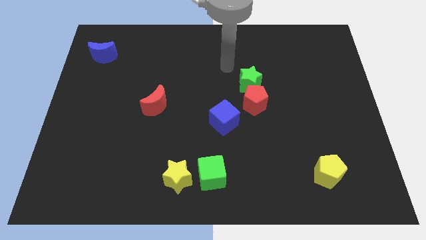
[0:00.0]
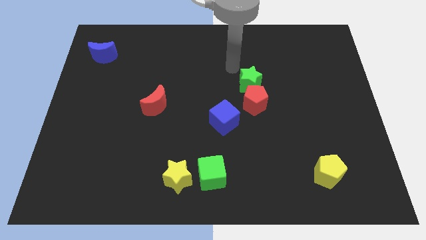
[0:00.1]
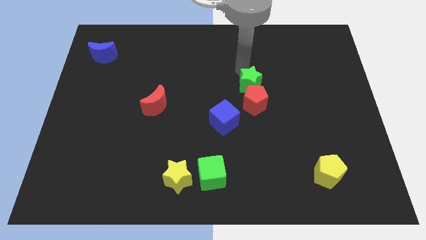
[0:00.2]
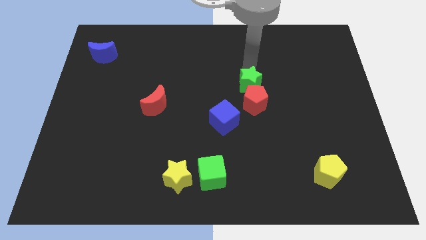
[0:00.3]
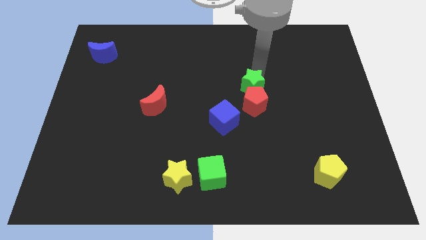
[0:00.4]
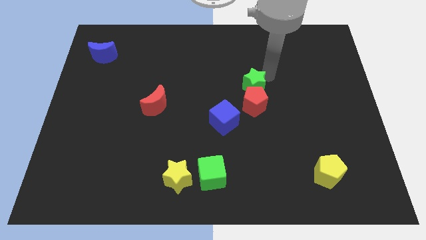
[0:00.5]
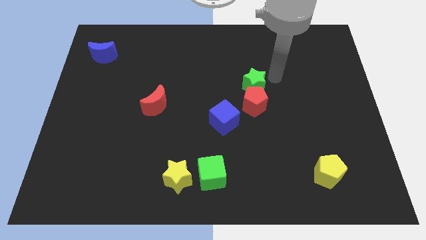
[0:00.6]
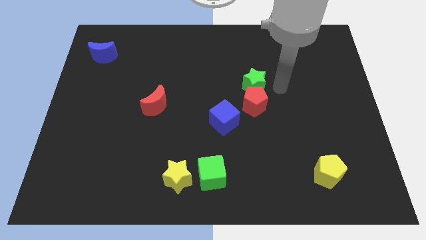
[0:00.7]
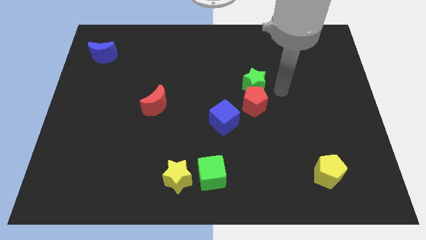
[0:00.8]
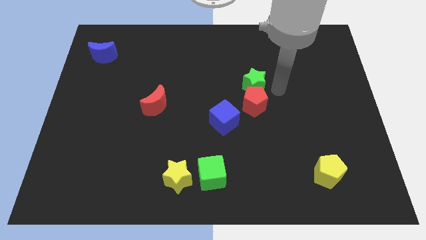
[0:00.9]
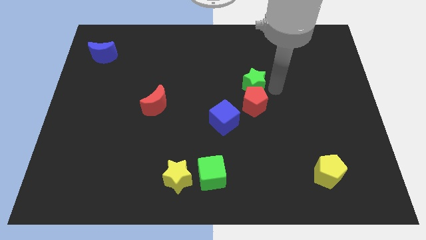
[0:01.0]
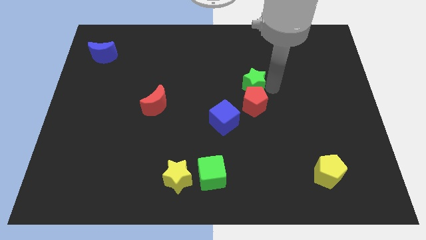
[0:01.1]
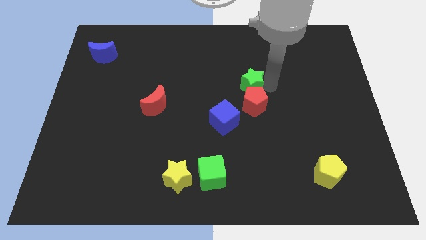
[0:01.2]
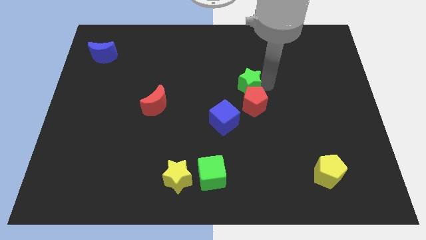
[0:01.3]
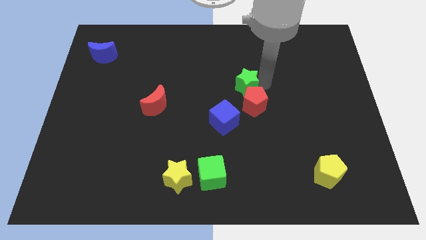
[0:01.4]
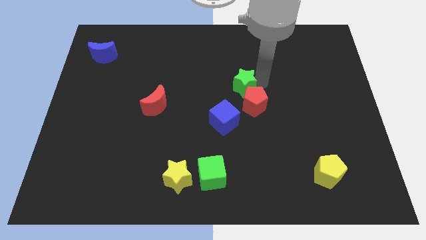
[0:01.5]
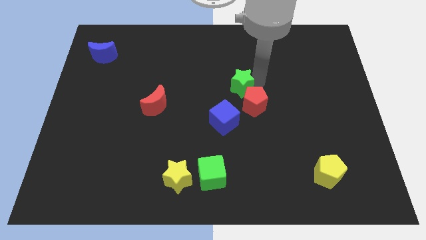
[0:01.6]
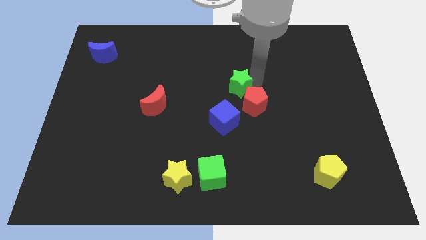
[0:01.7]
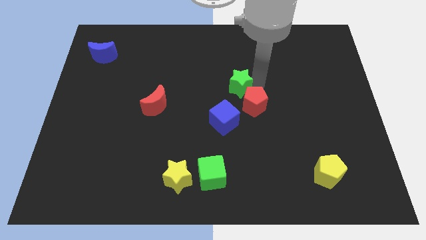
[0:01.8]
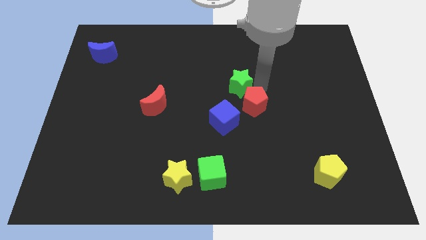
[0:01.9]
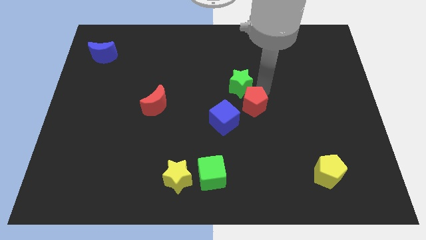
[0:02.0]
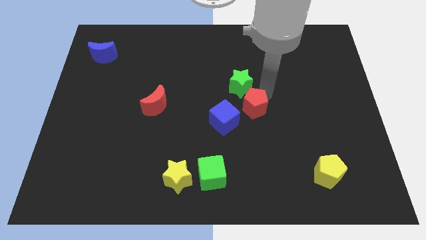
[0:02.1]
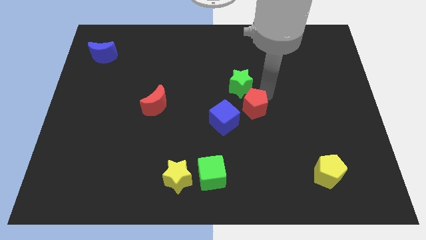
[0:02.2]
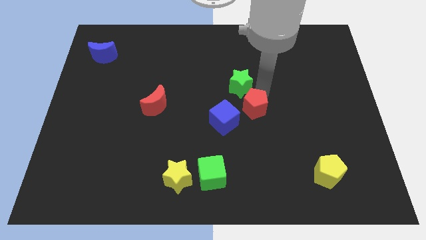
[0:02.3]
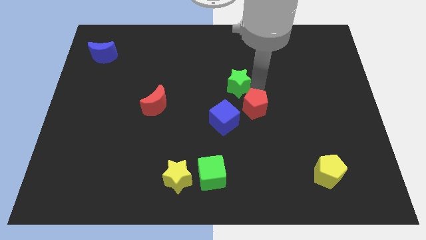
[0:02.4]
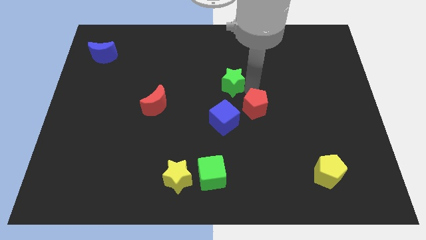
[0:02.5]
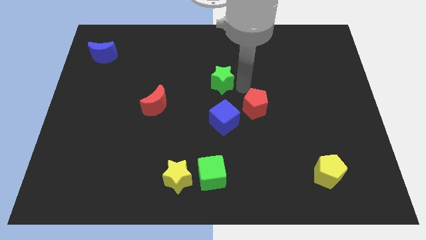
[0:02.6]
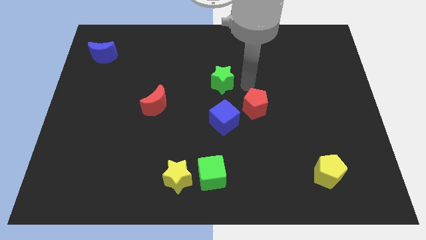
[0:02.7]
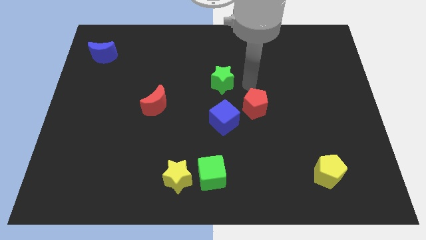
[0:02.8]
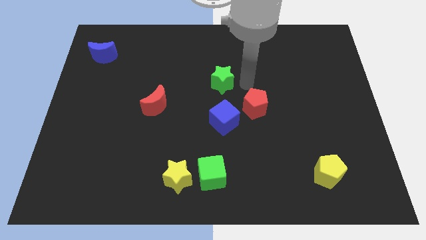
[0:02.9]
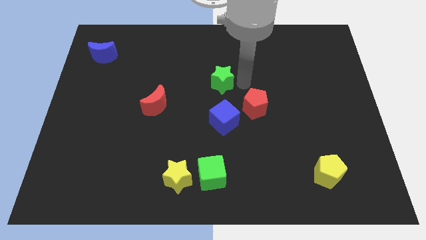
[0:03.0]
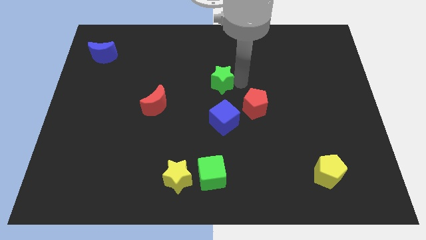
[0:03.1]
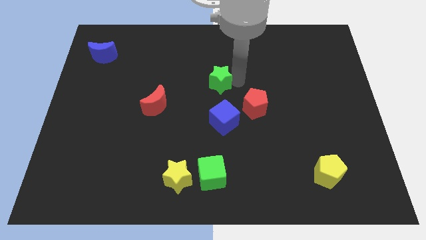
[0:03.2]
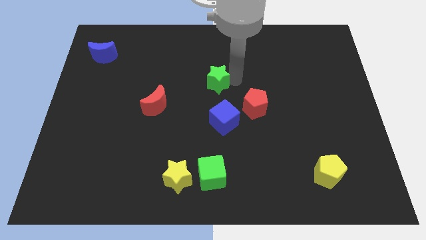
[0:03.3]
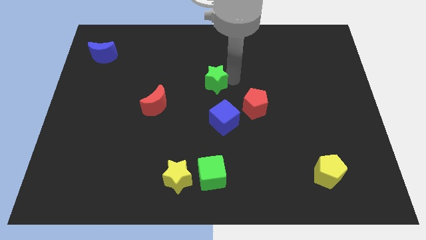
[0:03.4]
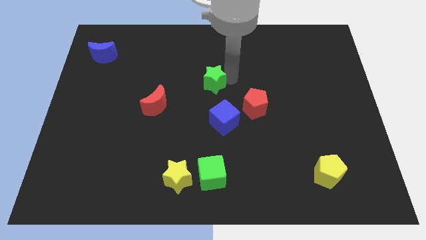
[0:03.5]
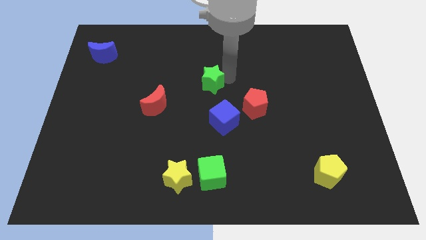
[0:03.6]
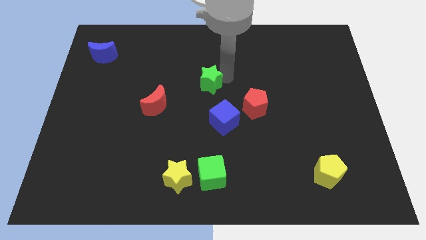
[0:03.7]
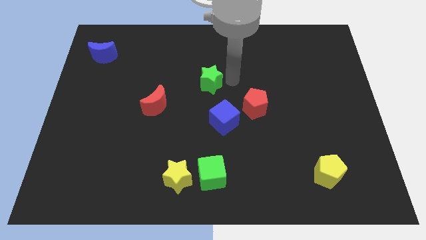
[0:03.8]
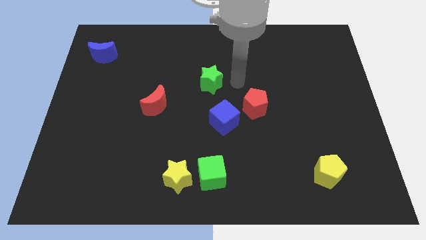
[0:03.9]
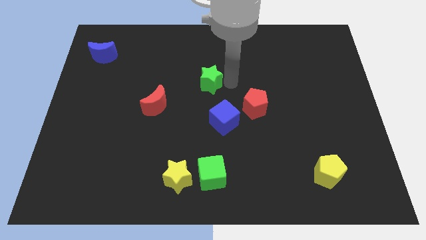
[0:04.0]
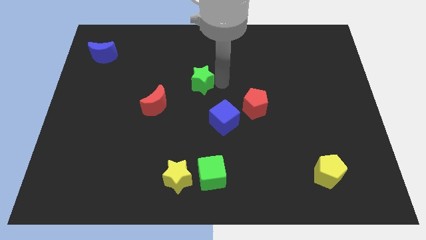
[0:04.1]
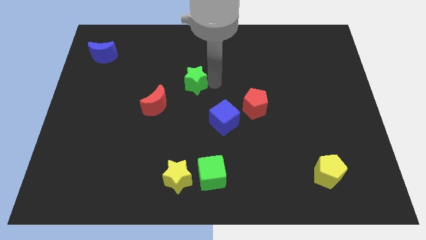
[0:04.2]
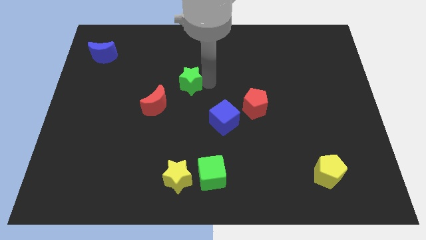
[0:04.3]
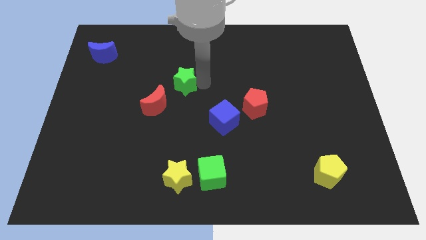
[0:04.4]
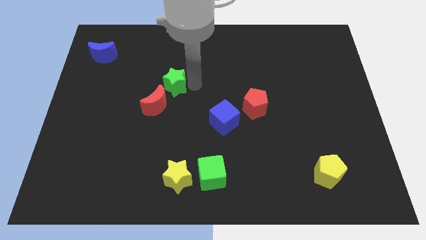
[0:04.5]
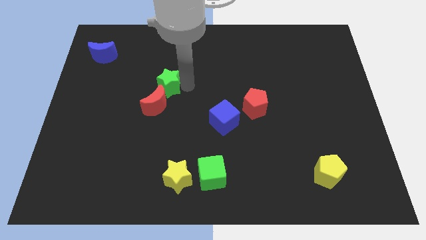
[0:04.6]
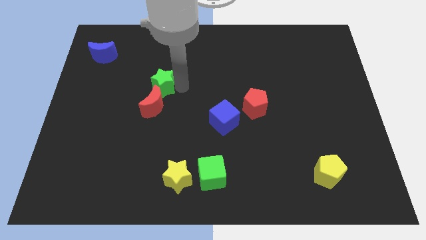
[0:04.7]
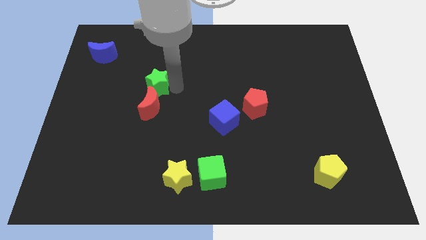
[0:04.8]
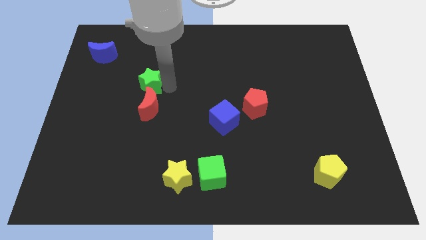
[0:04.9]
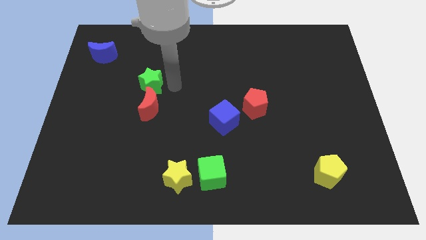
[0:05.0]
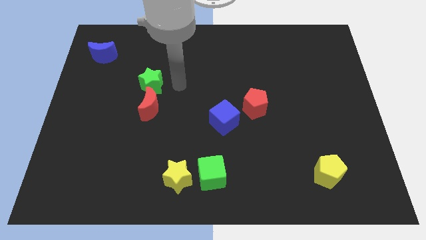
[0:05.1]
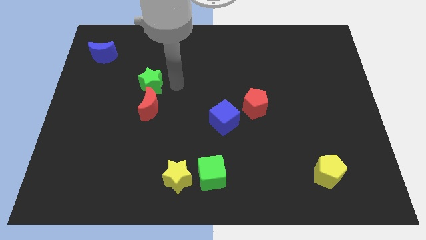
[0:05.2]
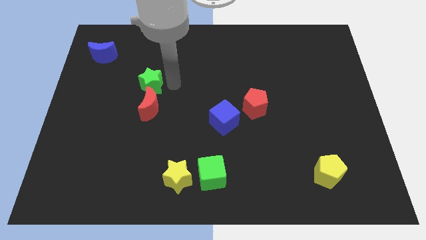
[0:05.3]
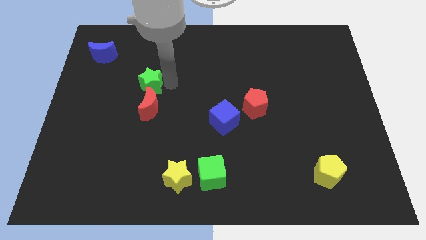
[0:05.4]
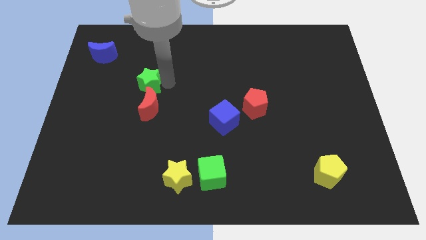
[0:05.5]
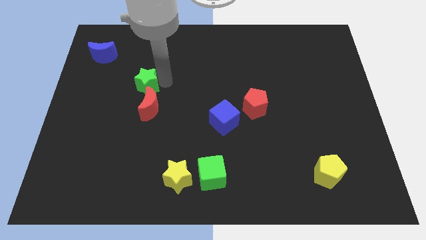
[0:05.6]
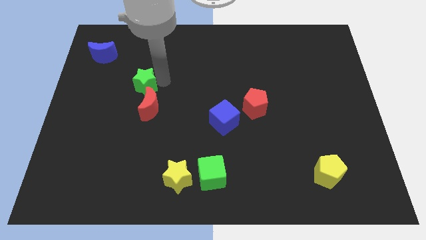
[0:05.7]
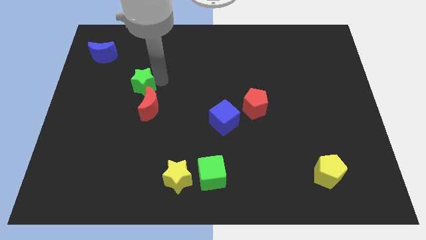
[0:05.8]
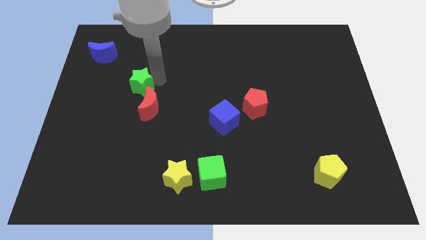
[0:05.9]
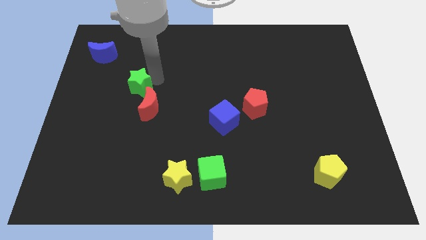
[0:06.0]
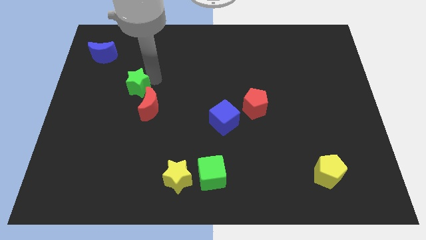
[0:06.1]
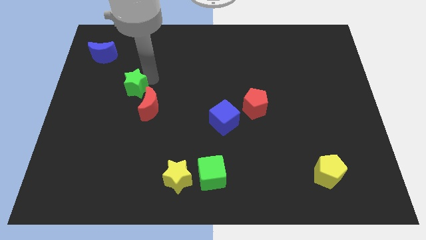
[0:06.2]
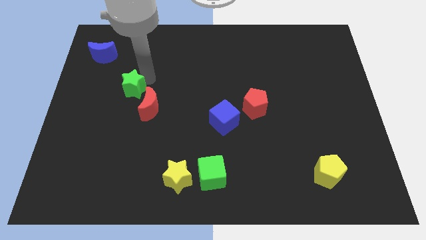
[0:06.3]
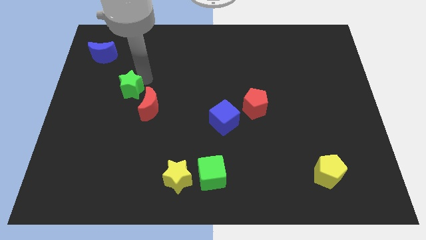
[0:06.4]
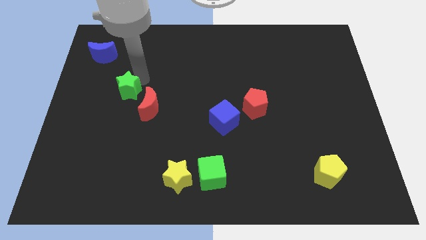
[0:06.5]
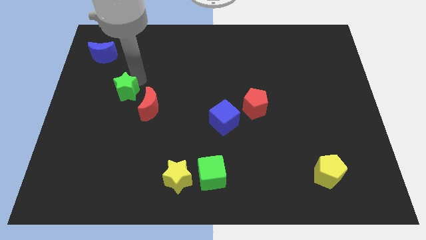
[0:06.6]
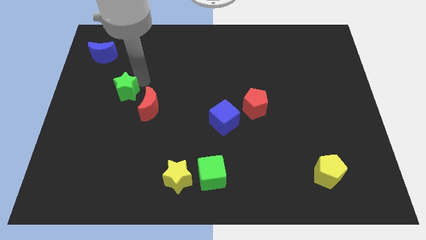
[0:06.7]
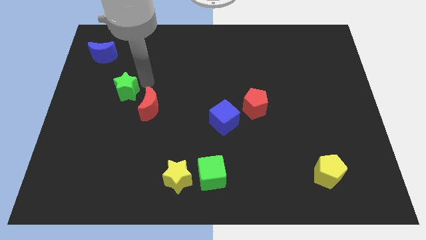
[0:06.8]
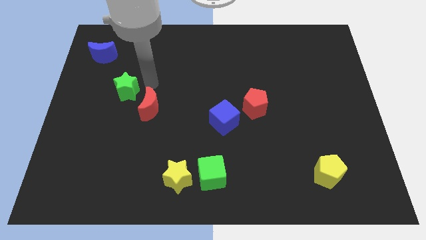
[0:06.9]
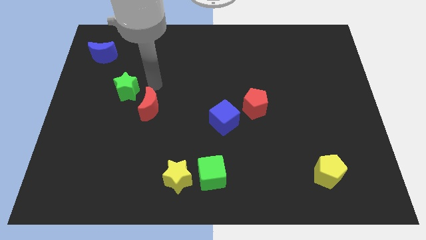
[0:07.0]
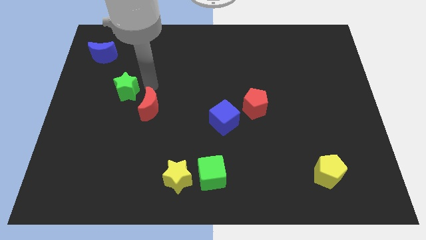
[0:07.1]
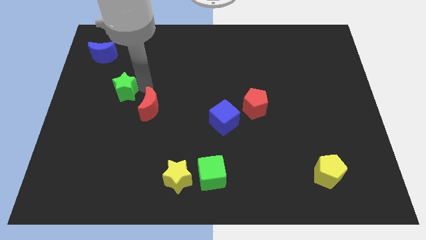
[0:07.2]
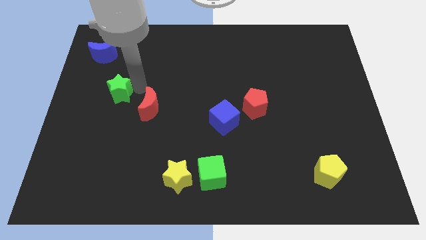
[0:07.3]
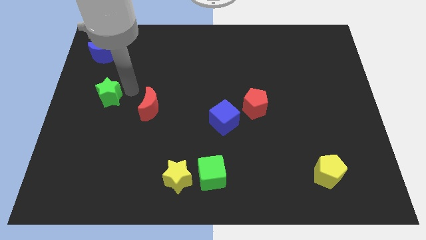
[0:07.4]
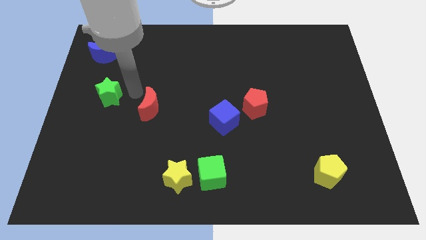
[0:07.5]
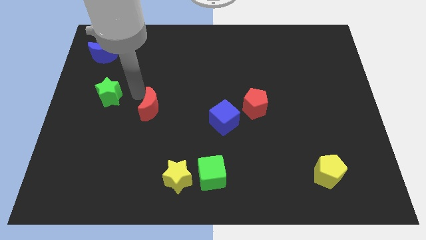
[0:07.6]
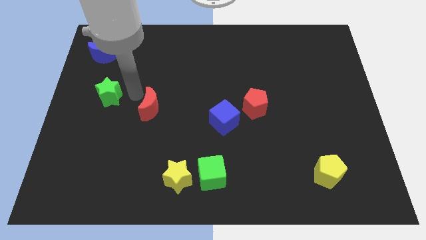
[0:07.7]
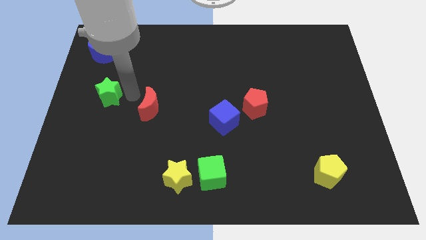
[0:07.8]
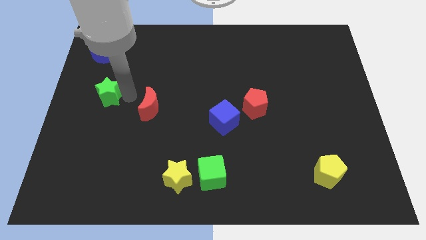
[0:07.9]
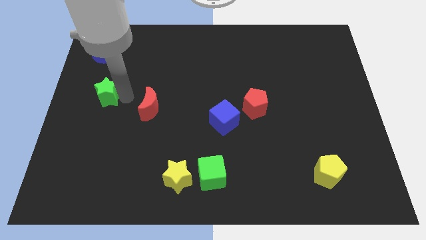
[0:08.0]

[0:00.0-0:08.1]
slide the green star to the center left
